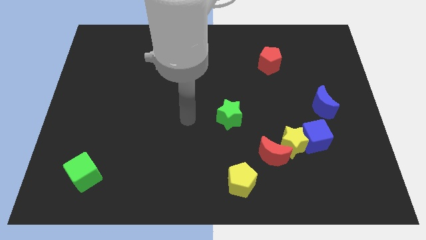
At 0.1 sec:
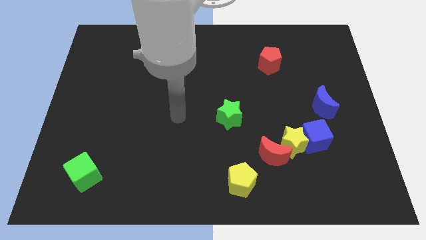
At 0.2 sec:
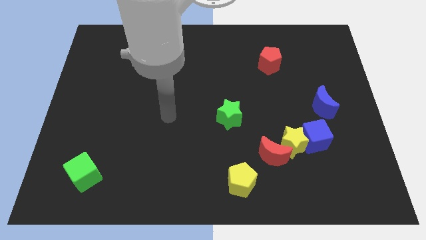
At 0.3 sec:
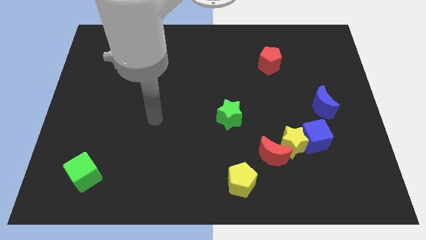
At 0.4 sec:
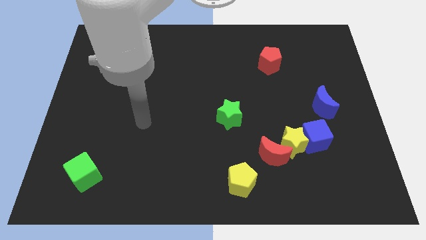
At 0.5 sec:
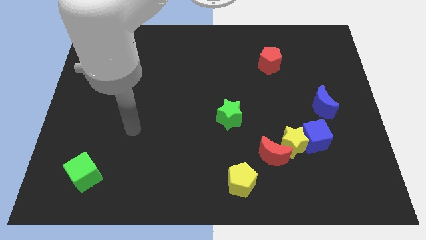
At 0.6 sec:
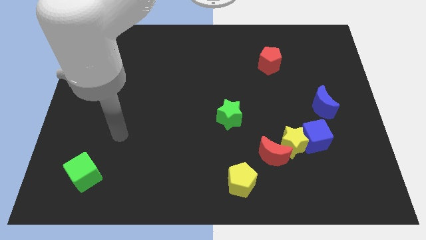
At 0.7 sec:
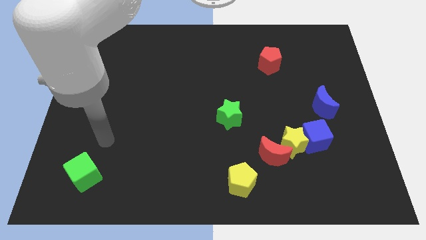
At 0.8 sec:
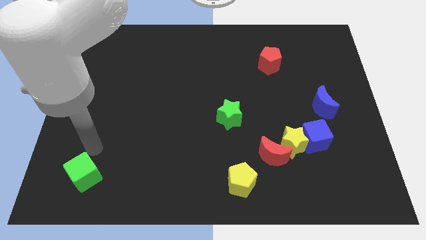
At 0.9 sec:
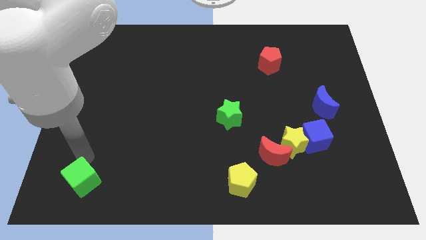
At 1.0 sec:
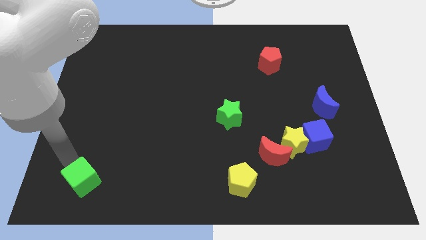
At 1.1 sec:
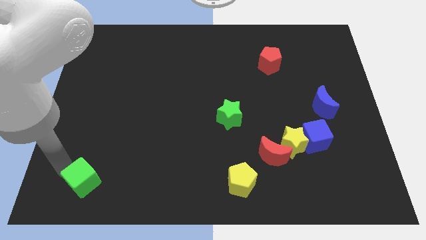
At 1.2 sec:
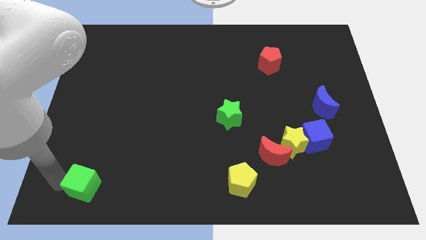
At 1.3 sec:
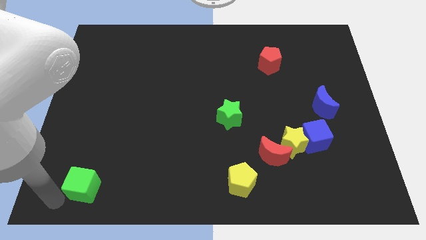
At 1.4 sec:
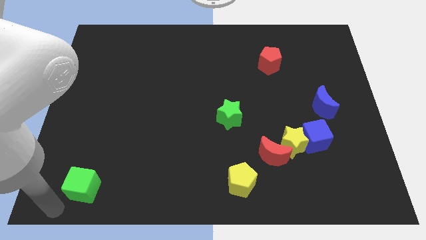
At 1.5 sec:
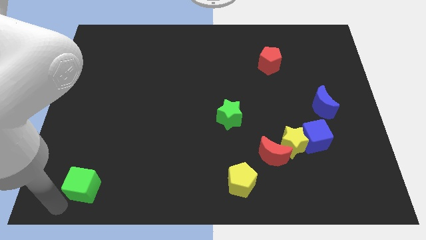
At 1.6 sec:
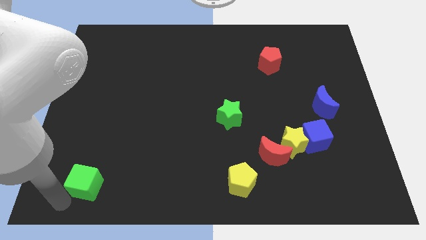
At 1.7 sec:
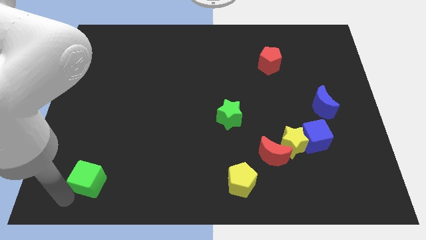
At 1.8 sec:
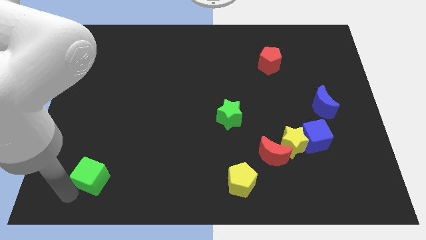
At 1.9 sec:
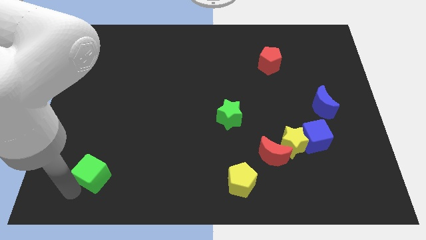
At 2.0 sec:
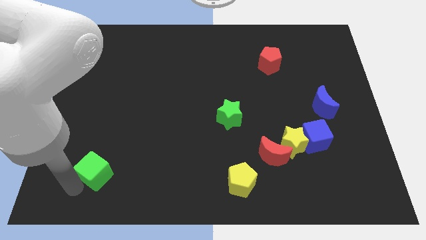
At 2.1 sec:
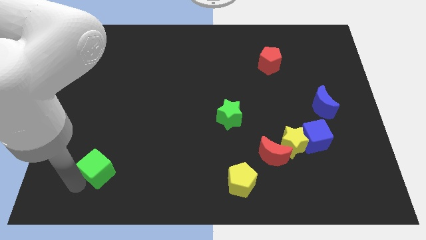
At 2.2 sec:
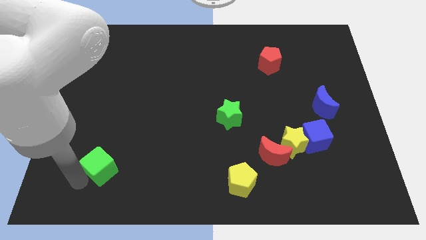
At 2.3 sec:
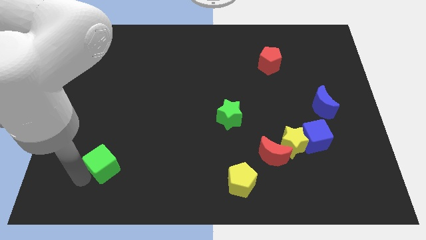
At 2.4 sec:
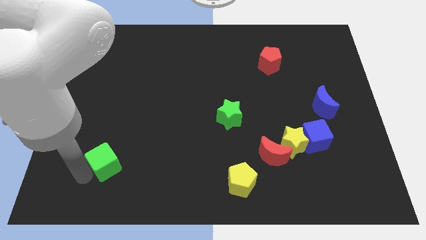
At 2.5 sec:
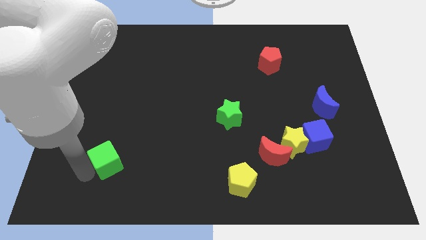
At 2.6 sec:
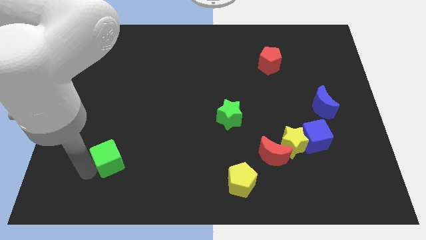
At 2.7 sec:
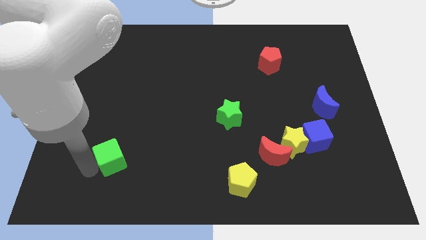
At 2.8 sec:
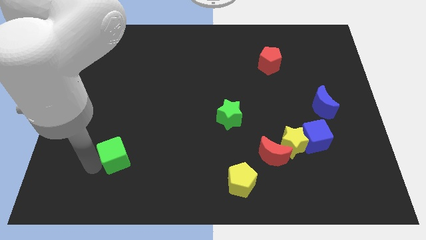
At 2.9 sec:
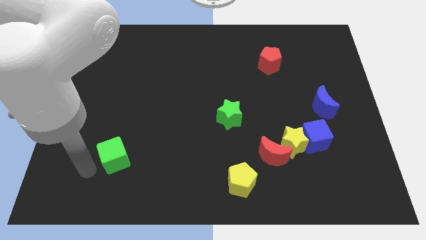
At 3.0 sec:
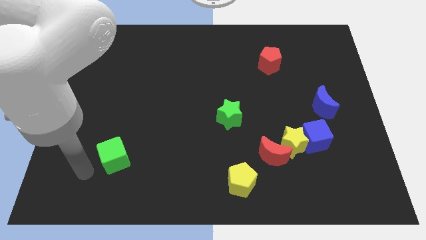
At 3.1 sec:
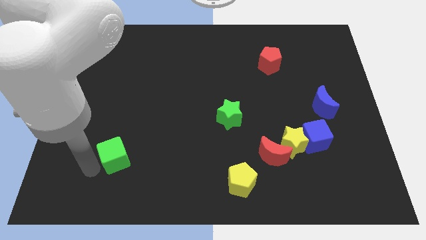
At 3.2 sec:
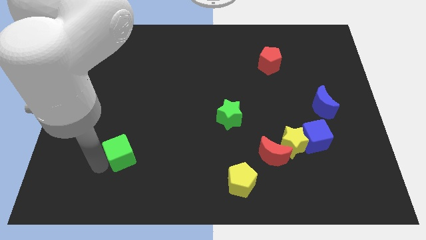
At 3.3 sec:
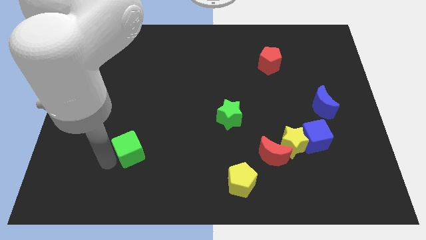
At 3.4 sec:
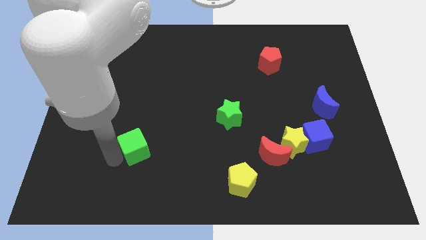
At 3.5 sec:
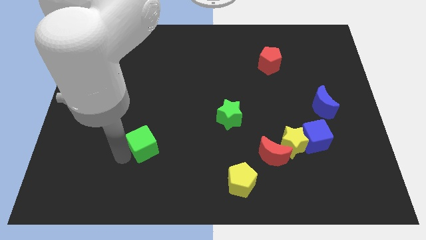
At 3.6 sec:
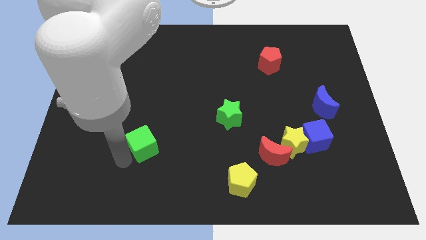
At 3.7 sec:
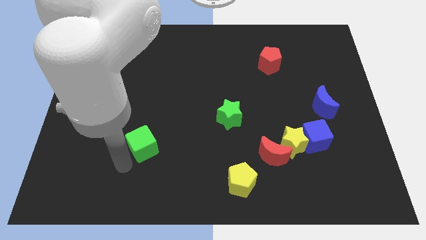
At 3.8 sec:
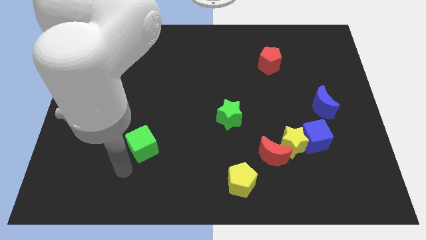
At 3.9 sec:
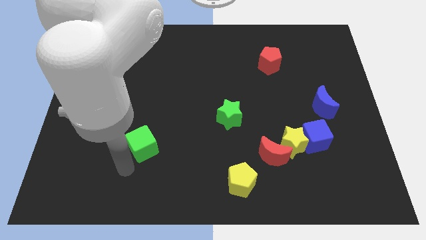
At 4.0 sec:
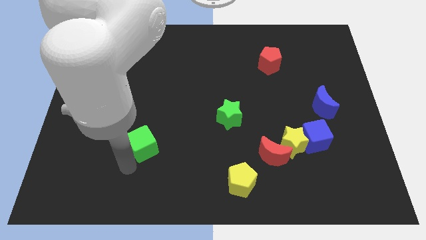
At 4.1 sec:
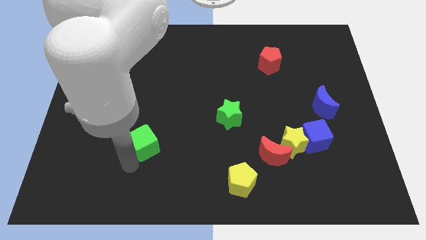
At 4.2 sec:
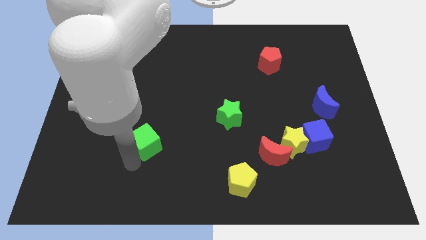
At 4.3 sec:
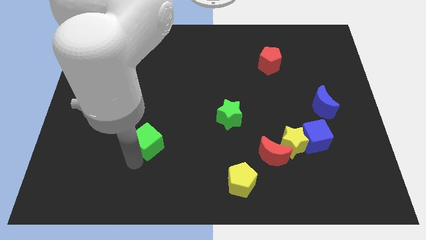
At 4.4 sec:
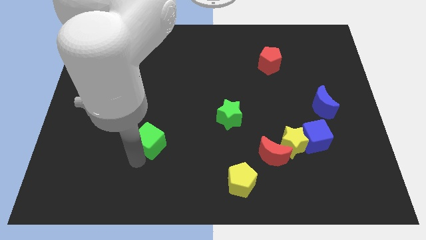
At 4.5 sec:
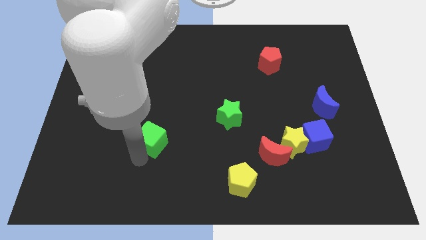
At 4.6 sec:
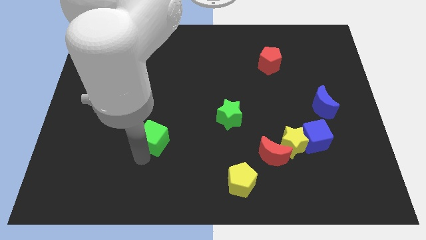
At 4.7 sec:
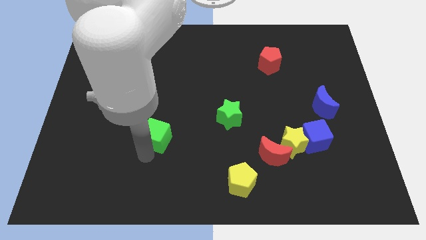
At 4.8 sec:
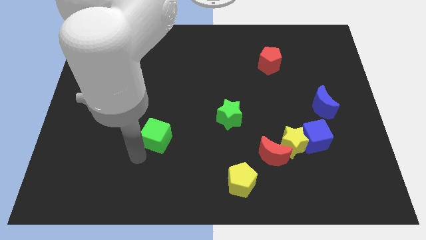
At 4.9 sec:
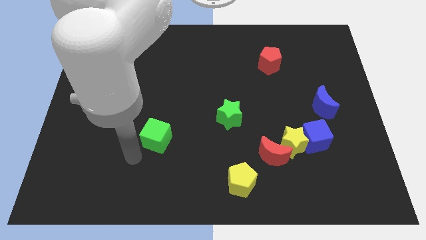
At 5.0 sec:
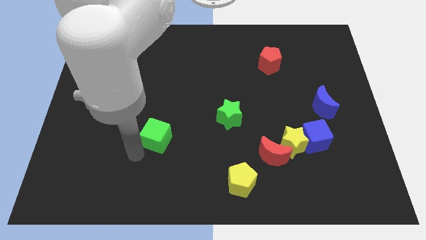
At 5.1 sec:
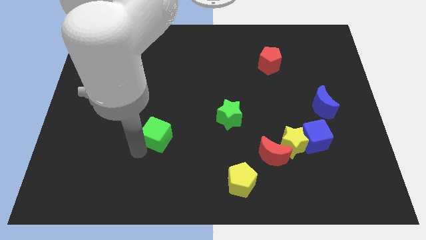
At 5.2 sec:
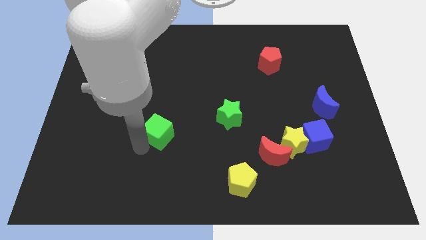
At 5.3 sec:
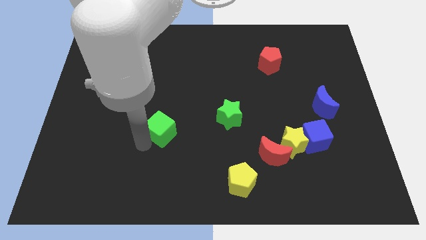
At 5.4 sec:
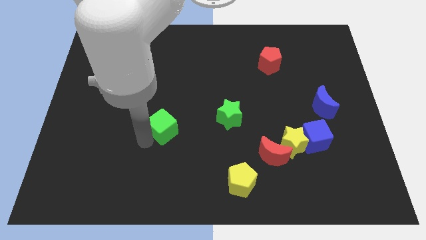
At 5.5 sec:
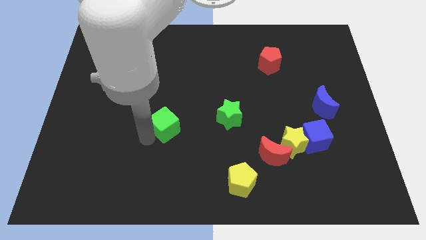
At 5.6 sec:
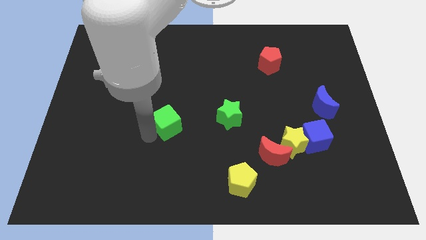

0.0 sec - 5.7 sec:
push the green cube to the center
